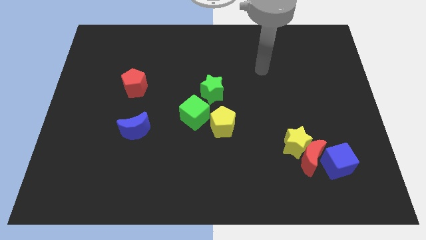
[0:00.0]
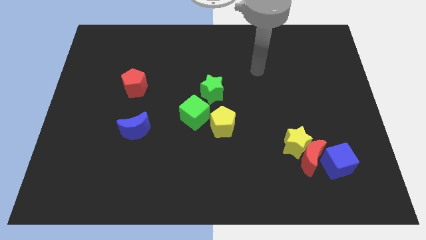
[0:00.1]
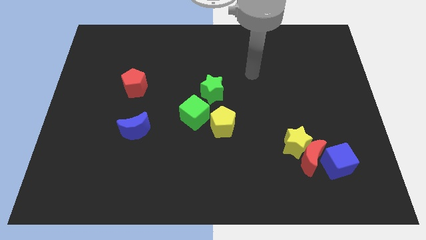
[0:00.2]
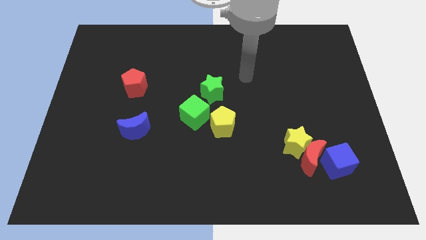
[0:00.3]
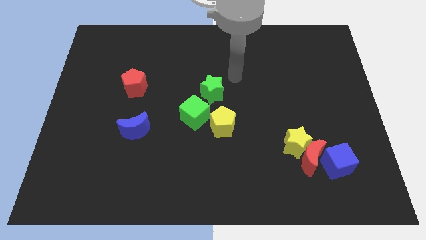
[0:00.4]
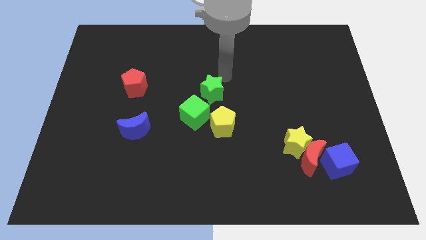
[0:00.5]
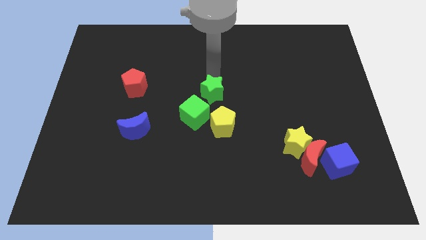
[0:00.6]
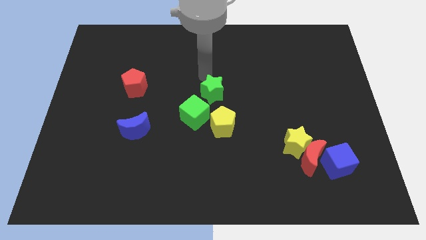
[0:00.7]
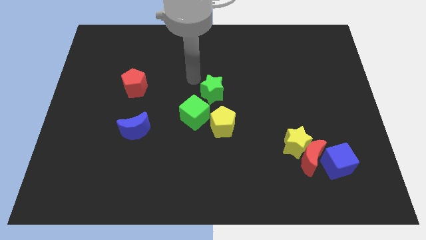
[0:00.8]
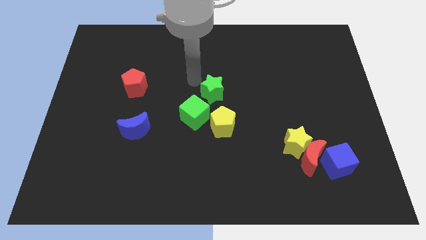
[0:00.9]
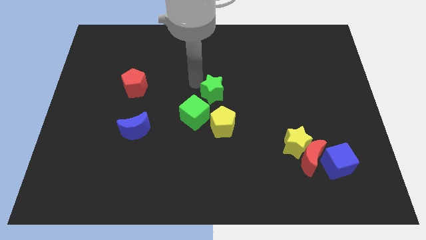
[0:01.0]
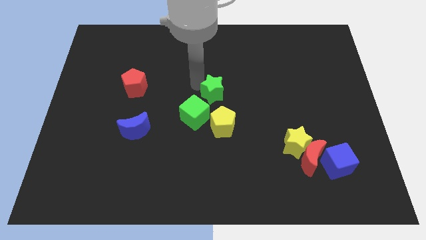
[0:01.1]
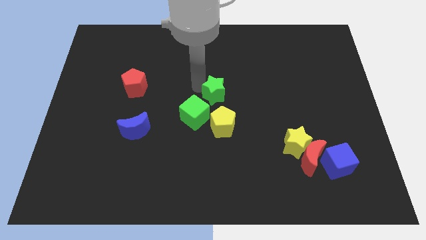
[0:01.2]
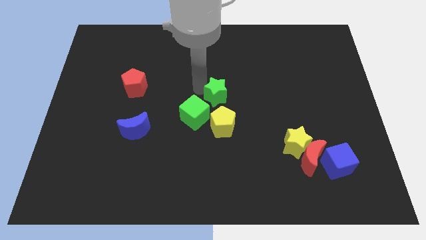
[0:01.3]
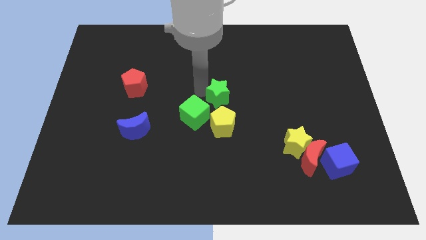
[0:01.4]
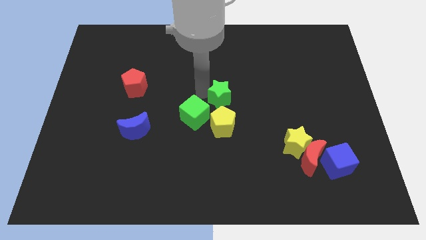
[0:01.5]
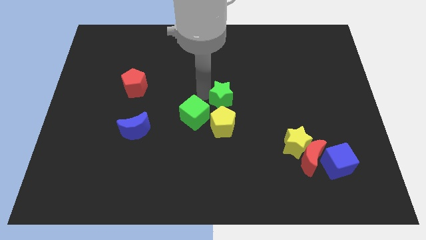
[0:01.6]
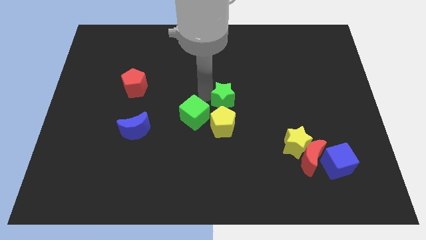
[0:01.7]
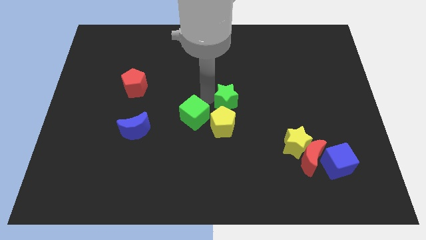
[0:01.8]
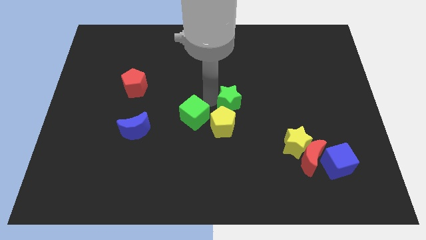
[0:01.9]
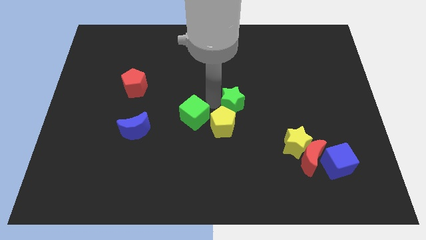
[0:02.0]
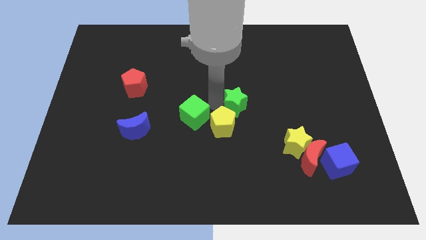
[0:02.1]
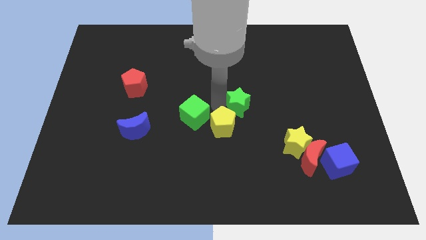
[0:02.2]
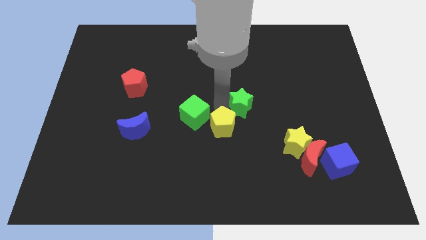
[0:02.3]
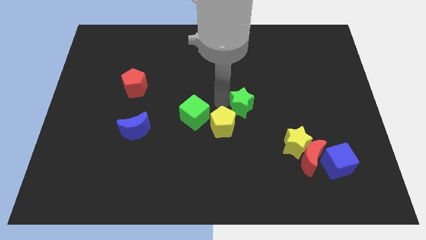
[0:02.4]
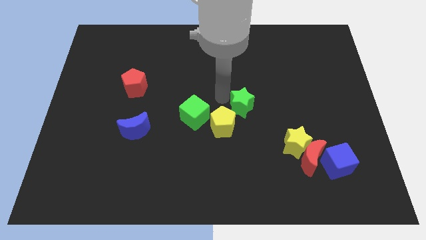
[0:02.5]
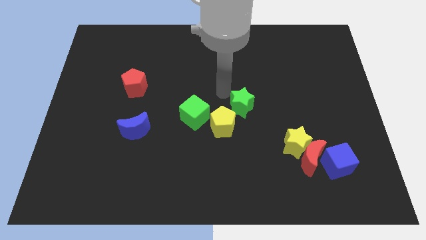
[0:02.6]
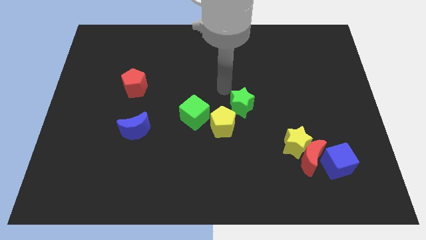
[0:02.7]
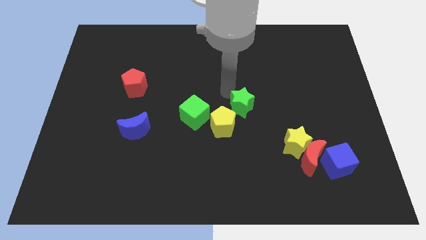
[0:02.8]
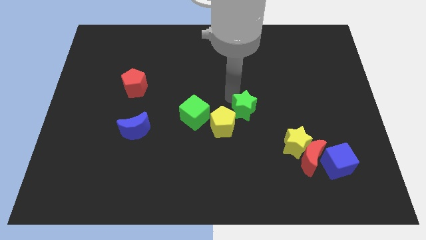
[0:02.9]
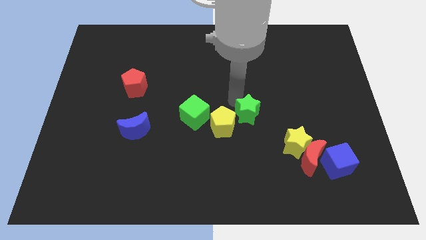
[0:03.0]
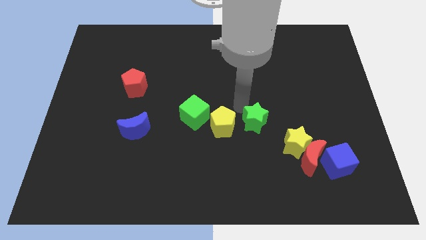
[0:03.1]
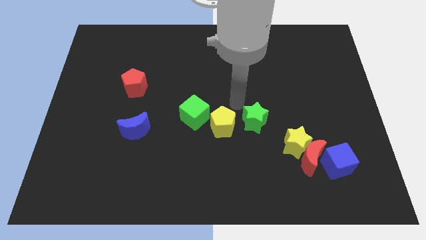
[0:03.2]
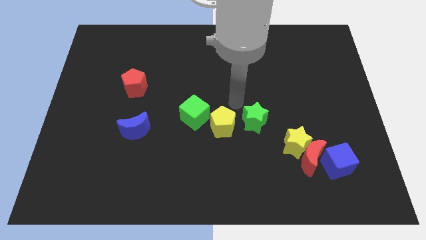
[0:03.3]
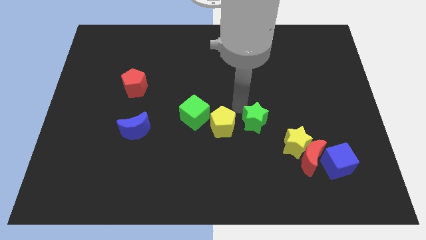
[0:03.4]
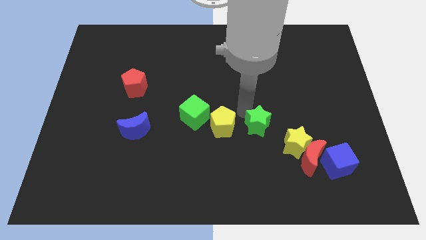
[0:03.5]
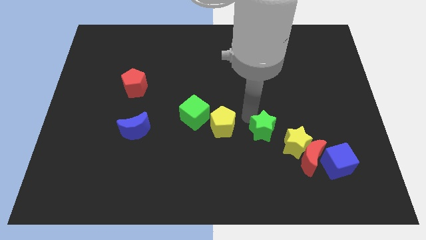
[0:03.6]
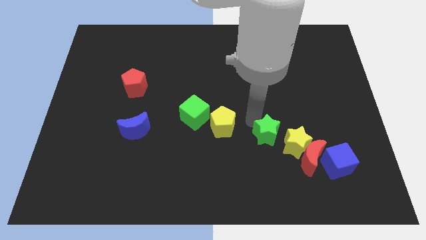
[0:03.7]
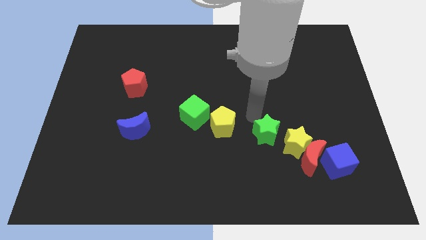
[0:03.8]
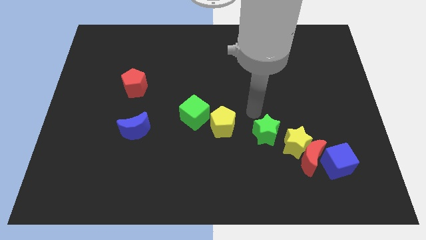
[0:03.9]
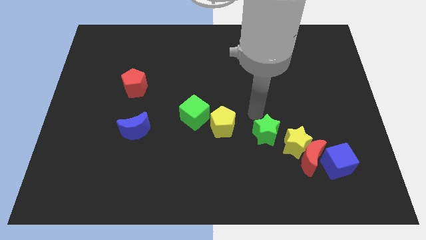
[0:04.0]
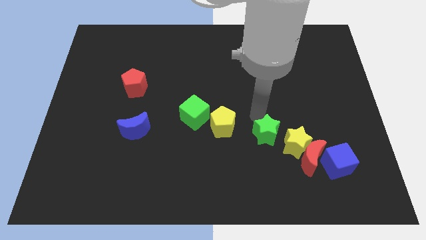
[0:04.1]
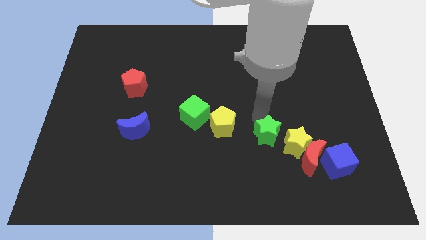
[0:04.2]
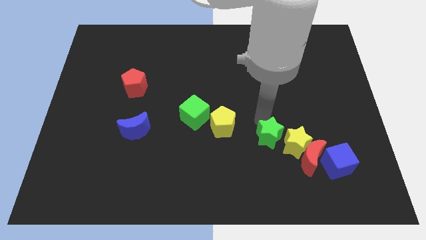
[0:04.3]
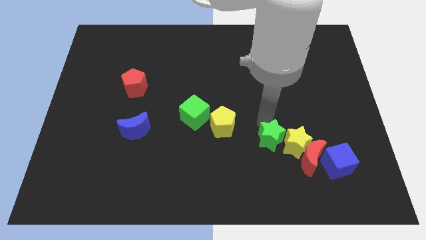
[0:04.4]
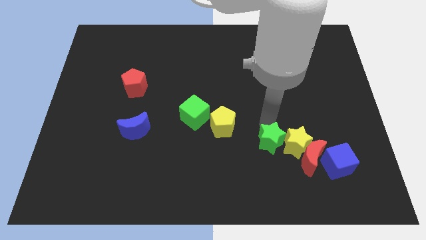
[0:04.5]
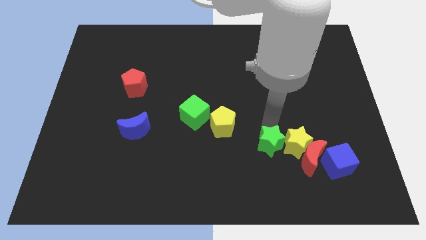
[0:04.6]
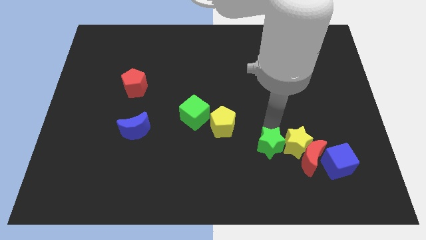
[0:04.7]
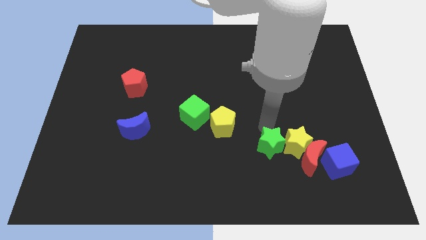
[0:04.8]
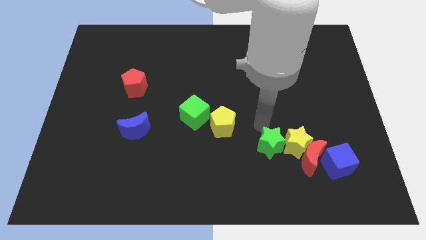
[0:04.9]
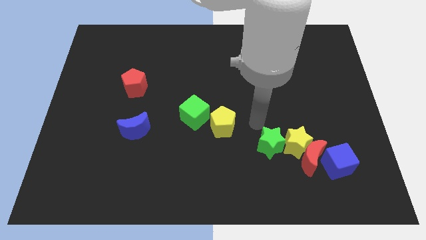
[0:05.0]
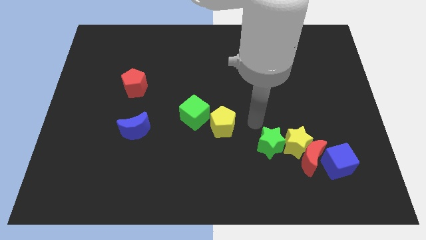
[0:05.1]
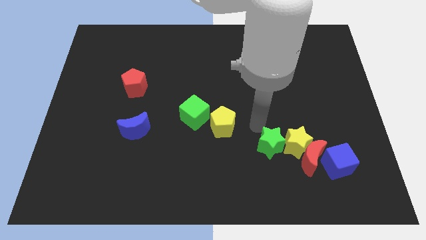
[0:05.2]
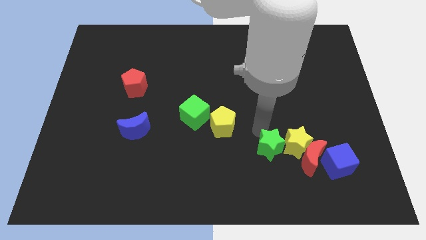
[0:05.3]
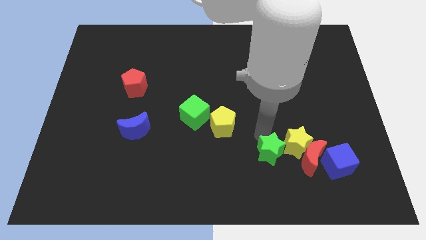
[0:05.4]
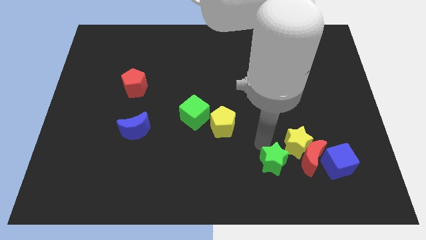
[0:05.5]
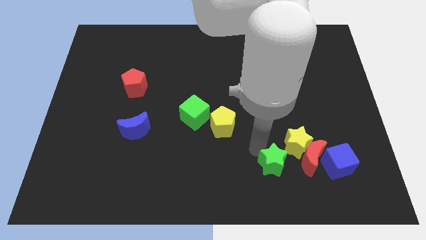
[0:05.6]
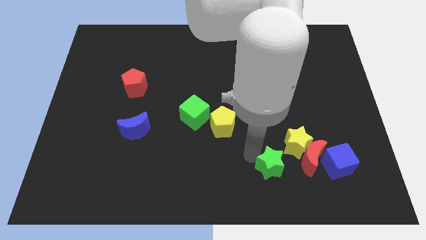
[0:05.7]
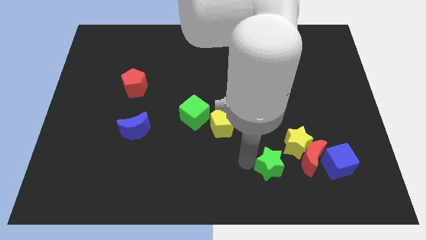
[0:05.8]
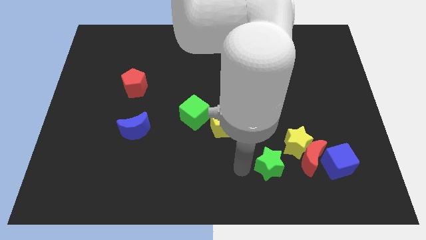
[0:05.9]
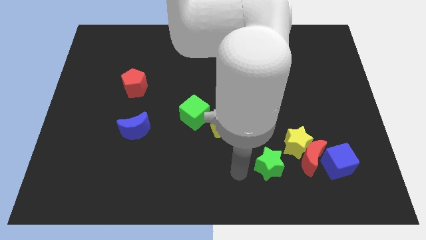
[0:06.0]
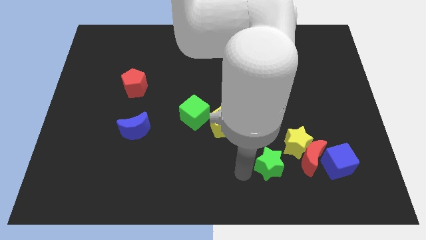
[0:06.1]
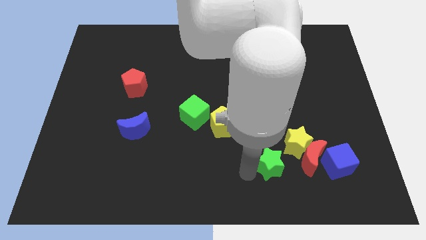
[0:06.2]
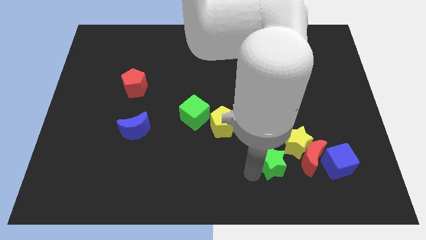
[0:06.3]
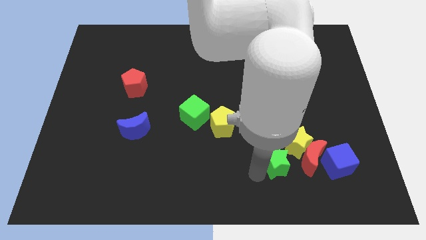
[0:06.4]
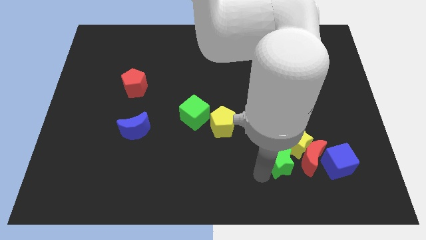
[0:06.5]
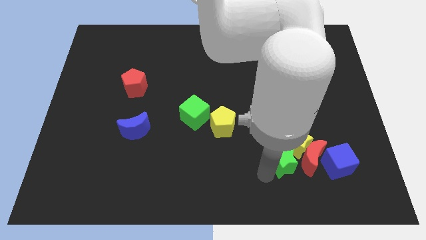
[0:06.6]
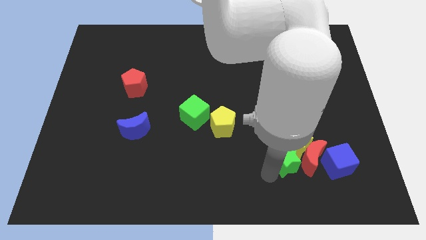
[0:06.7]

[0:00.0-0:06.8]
slide the green star next to the red moon

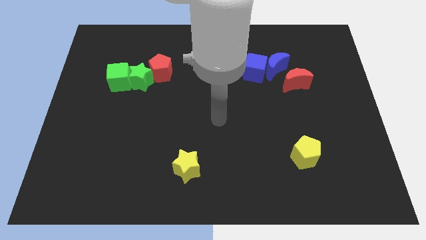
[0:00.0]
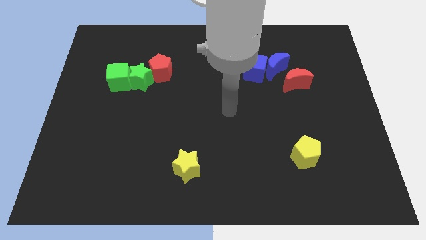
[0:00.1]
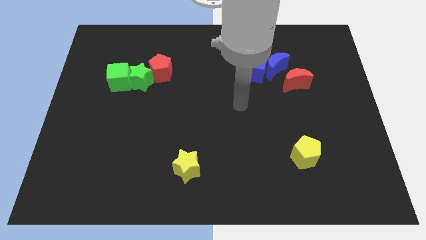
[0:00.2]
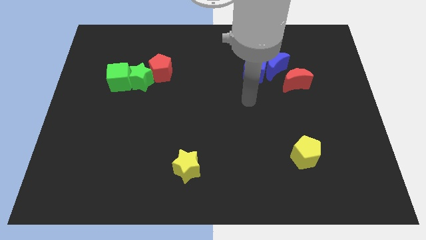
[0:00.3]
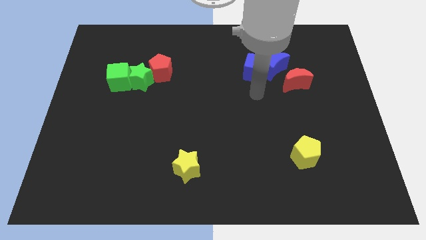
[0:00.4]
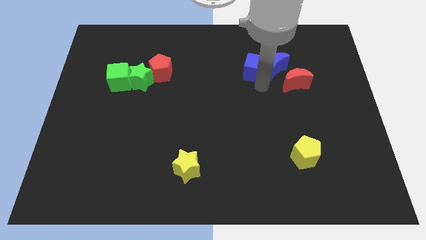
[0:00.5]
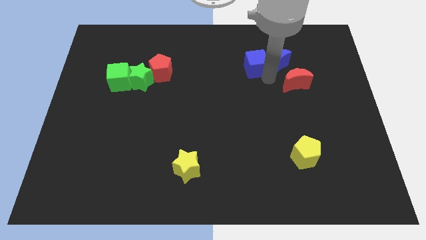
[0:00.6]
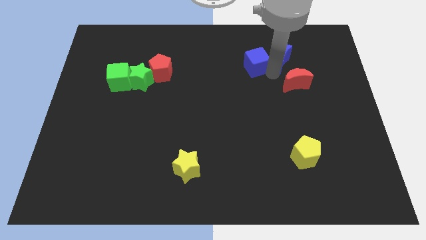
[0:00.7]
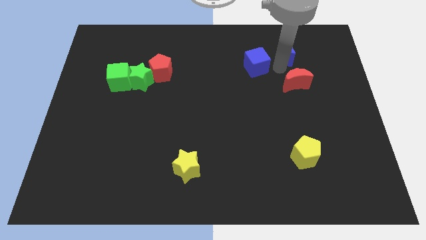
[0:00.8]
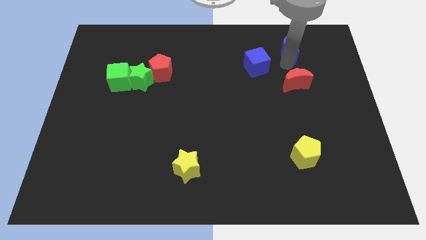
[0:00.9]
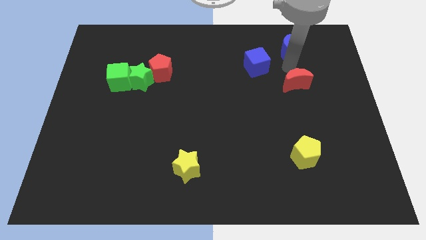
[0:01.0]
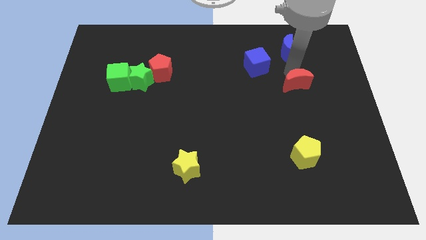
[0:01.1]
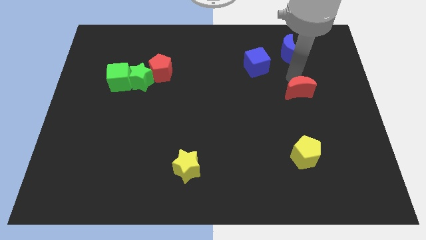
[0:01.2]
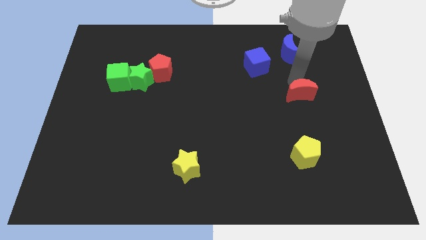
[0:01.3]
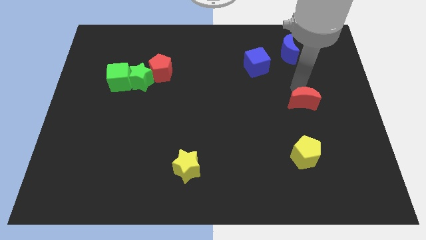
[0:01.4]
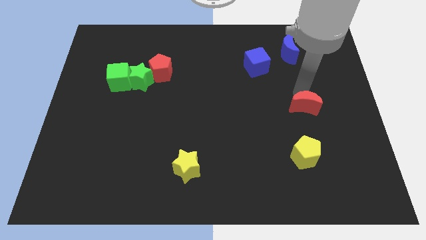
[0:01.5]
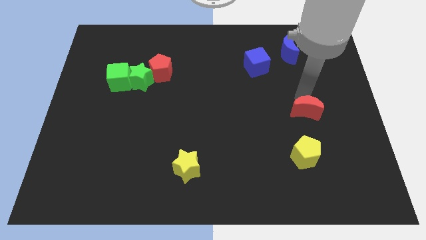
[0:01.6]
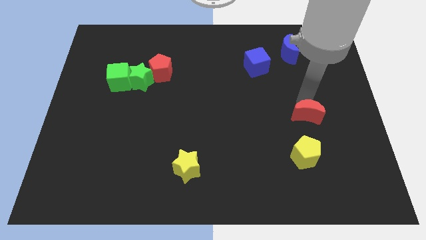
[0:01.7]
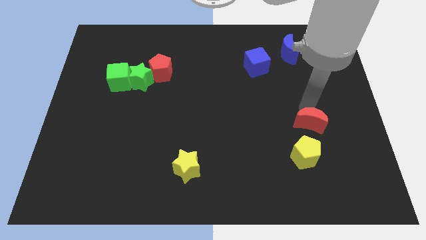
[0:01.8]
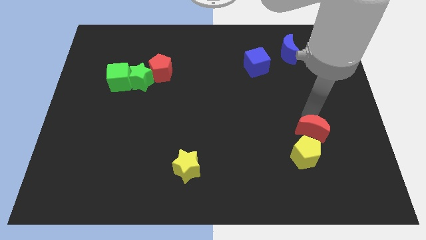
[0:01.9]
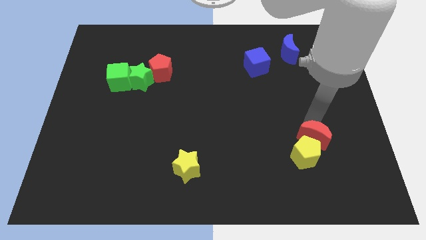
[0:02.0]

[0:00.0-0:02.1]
move the red moon towards the yellow pentagon
